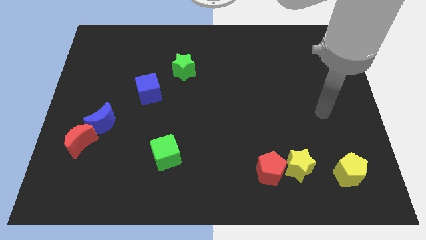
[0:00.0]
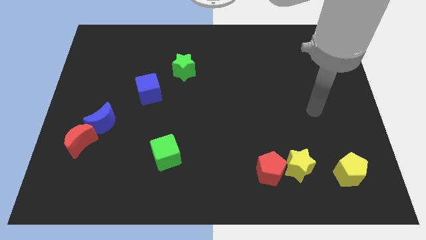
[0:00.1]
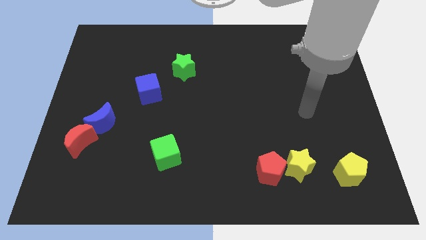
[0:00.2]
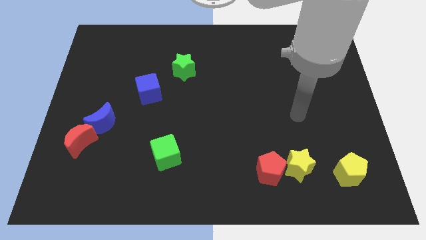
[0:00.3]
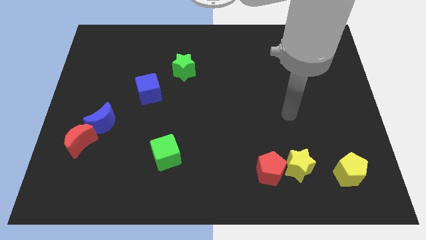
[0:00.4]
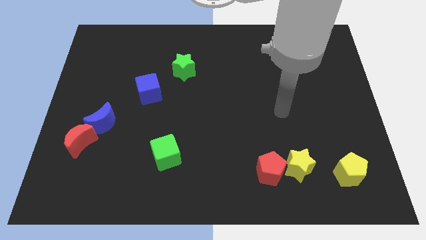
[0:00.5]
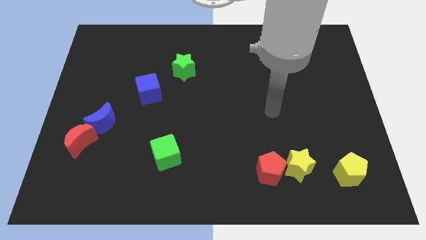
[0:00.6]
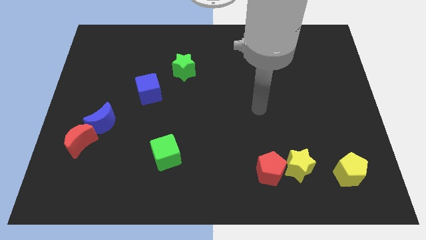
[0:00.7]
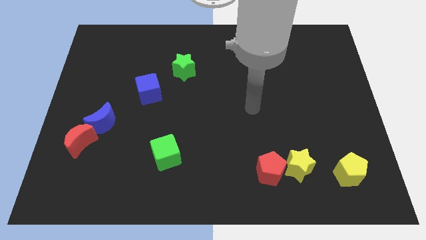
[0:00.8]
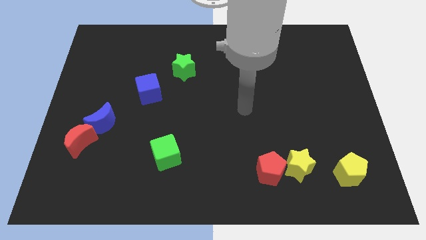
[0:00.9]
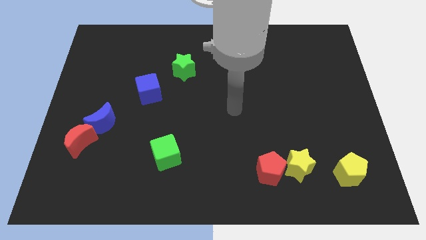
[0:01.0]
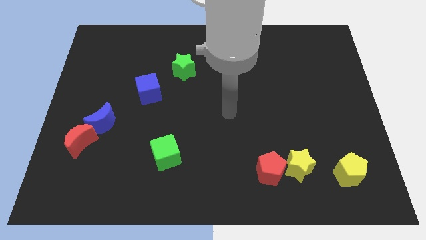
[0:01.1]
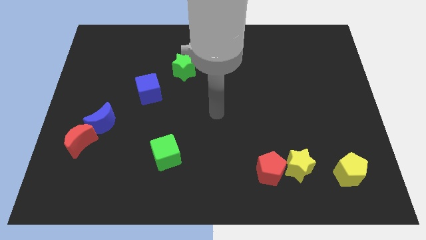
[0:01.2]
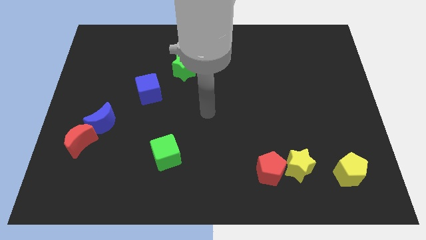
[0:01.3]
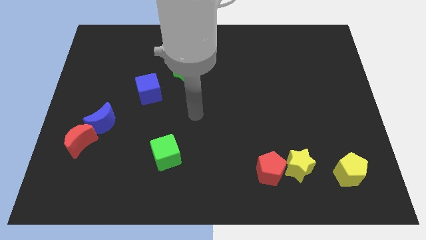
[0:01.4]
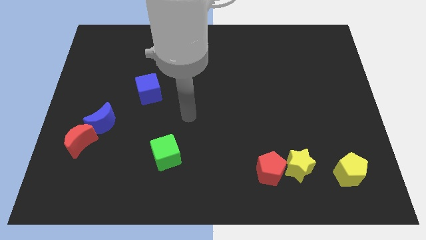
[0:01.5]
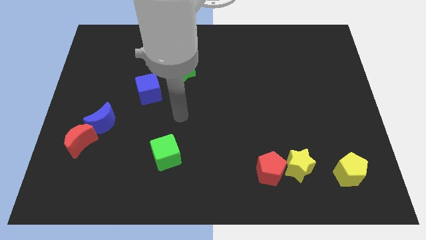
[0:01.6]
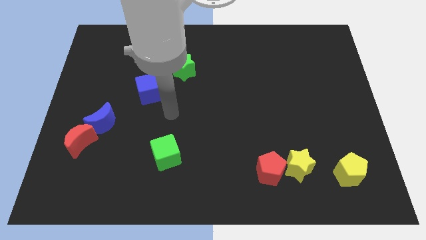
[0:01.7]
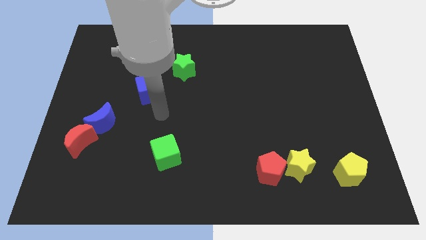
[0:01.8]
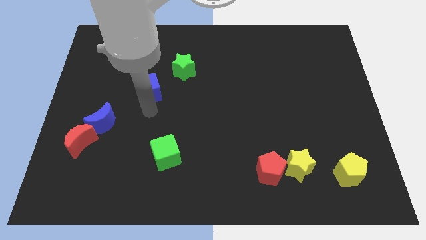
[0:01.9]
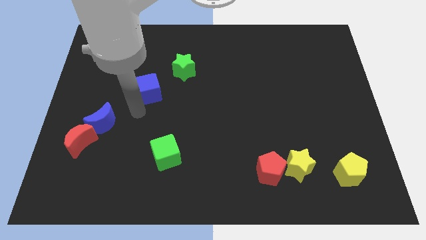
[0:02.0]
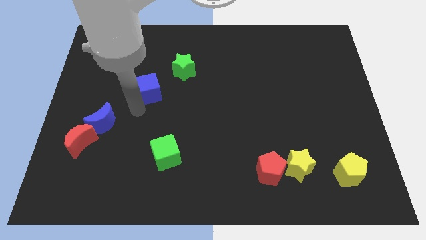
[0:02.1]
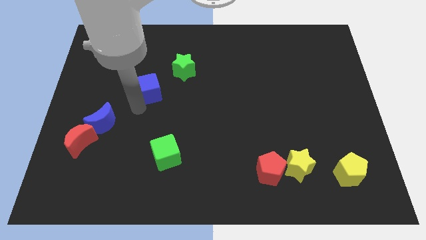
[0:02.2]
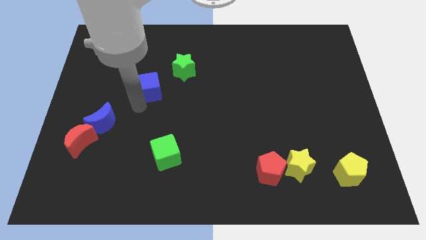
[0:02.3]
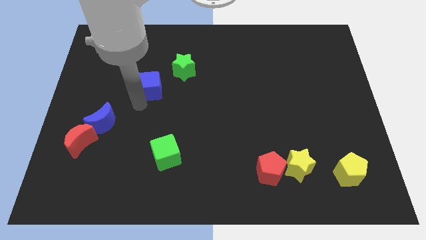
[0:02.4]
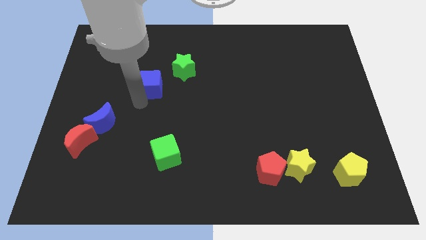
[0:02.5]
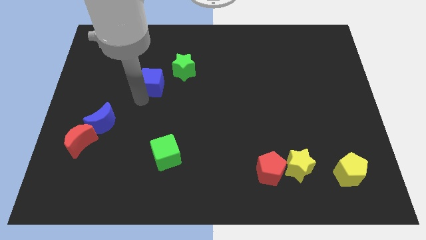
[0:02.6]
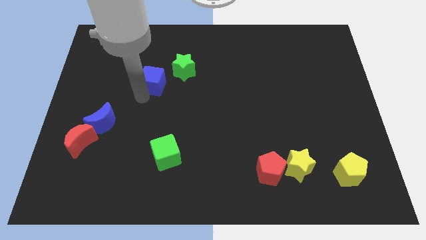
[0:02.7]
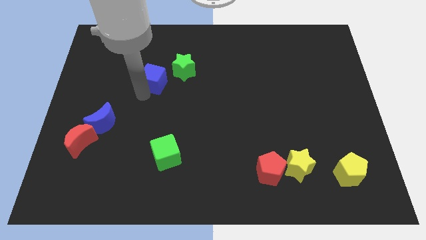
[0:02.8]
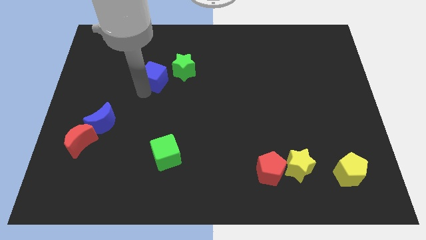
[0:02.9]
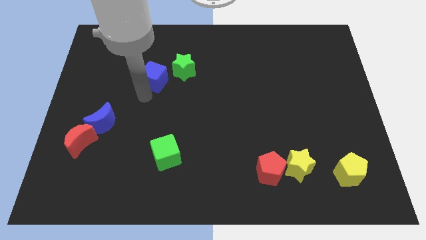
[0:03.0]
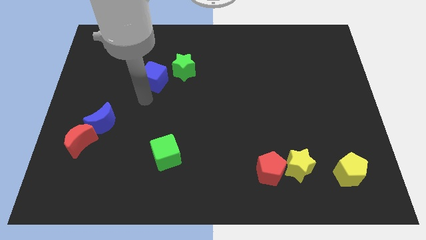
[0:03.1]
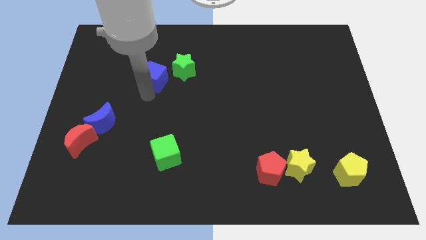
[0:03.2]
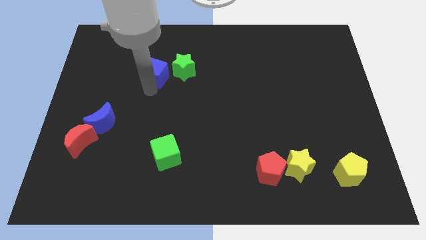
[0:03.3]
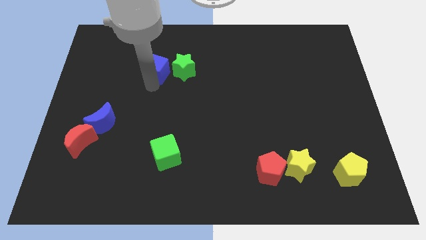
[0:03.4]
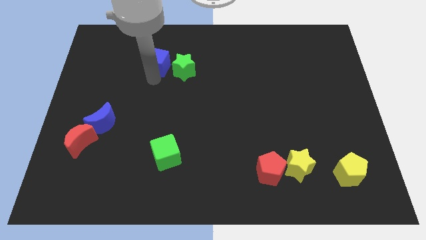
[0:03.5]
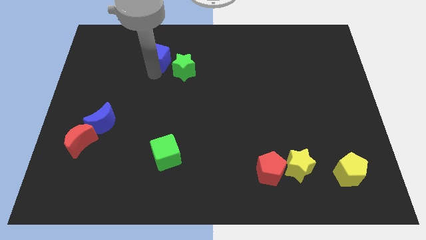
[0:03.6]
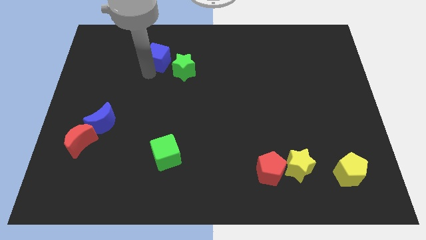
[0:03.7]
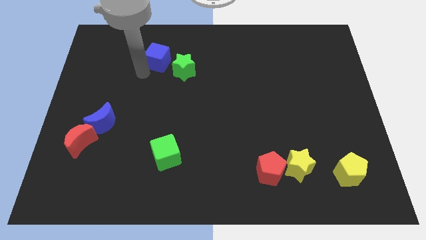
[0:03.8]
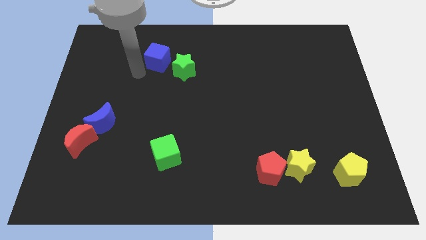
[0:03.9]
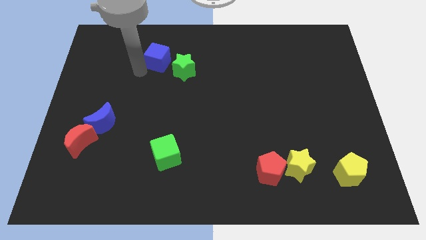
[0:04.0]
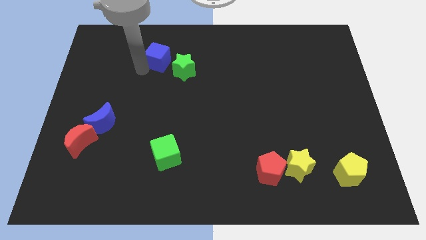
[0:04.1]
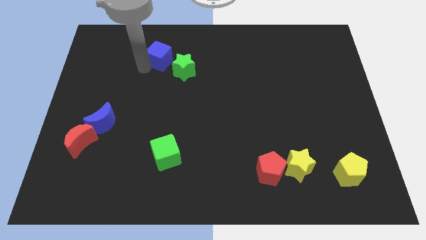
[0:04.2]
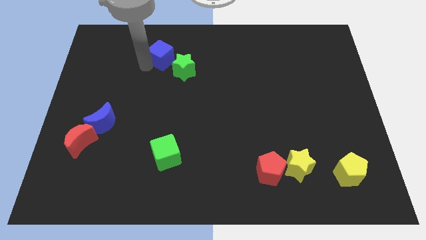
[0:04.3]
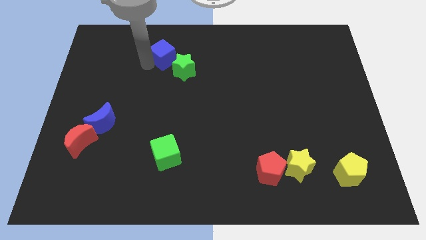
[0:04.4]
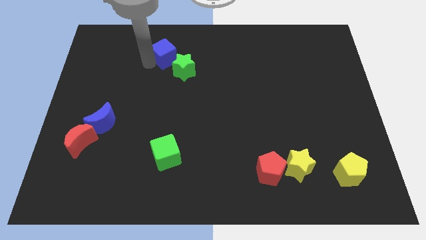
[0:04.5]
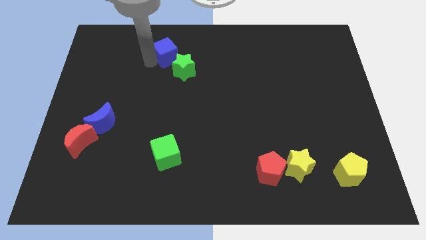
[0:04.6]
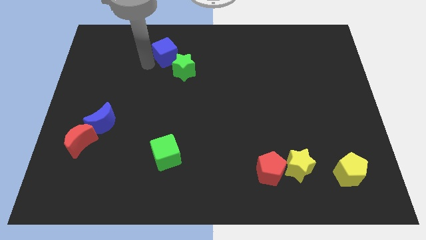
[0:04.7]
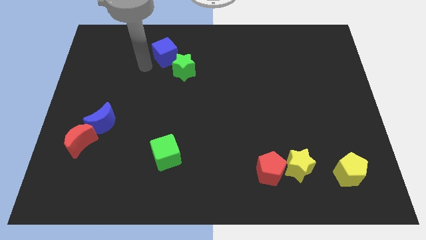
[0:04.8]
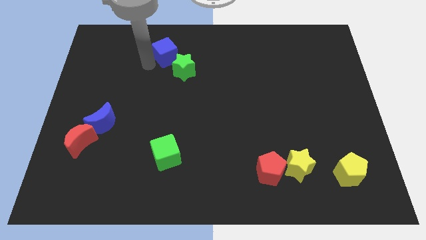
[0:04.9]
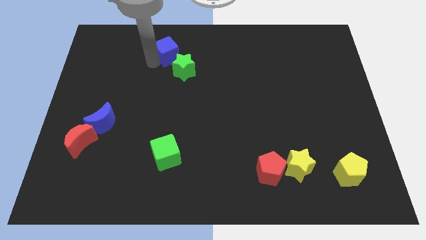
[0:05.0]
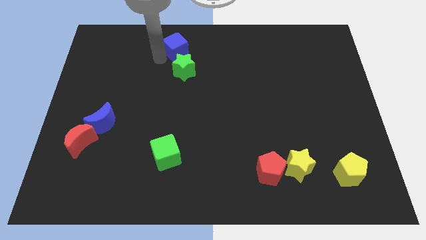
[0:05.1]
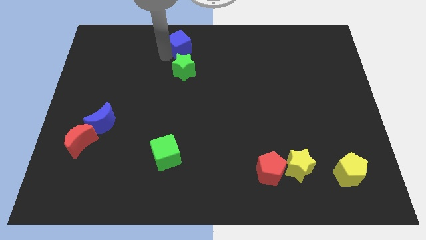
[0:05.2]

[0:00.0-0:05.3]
slide the blue cube to the top side

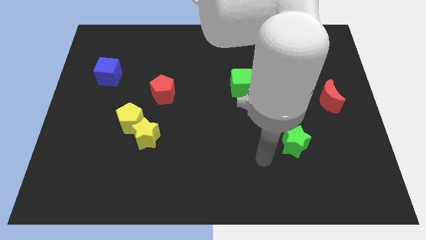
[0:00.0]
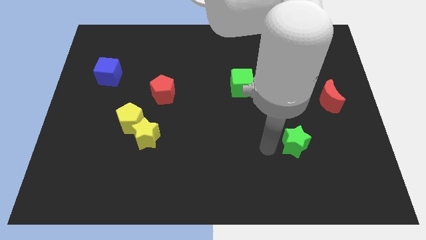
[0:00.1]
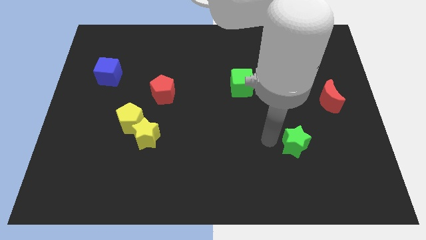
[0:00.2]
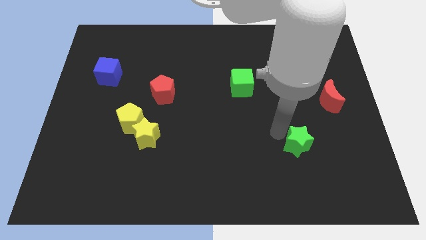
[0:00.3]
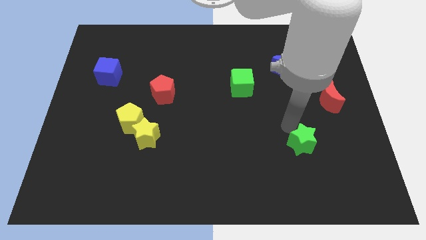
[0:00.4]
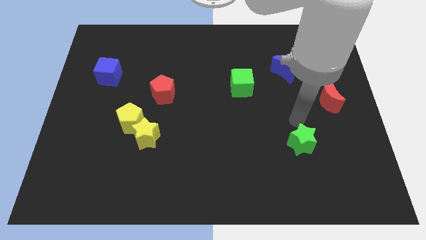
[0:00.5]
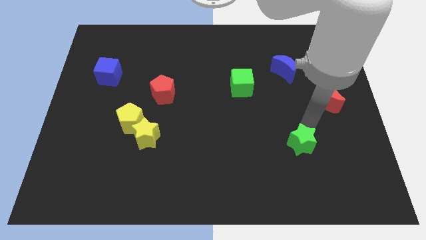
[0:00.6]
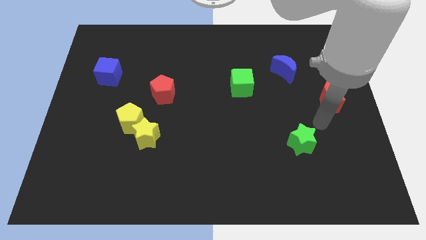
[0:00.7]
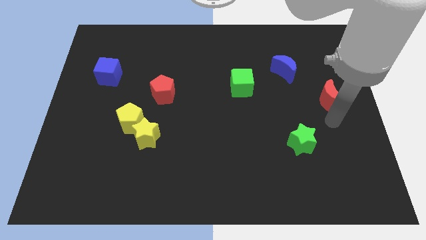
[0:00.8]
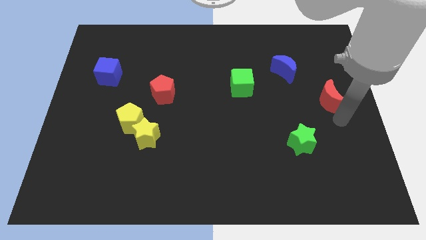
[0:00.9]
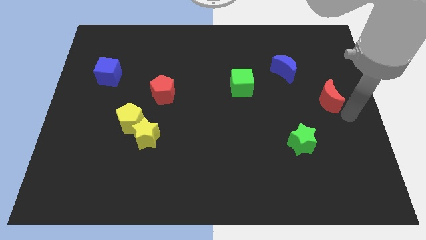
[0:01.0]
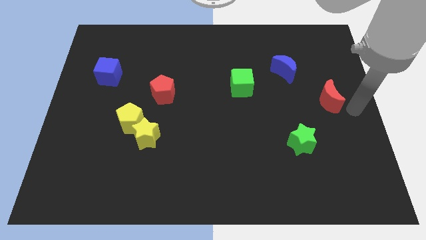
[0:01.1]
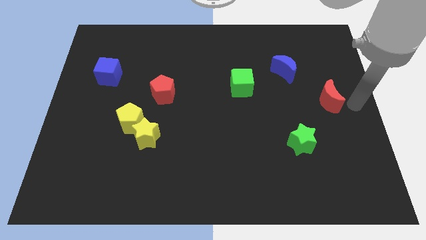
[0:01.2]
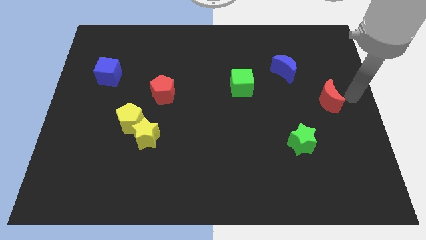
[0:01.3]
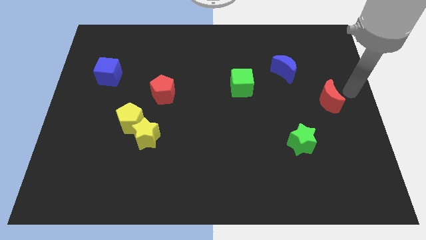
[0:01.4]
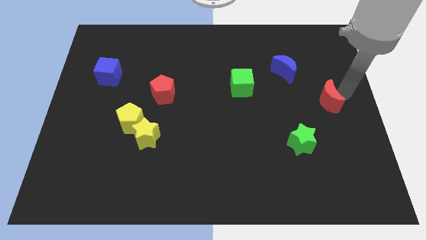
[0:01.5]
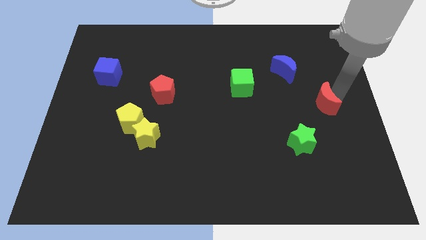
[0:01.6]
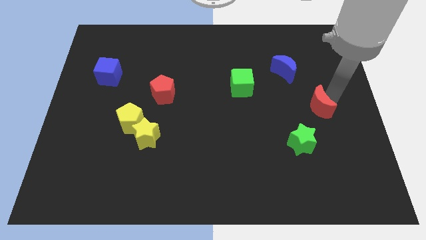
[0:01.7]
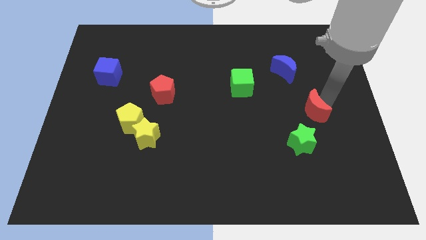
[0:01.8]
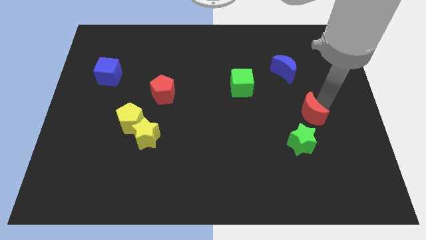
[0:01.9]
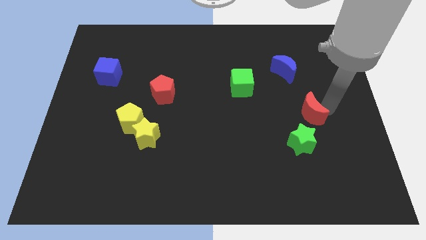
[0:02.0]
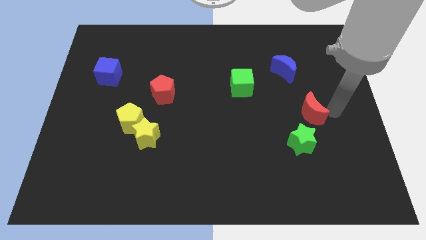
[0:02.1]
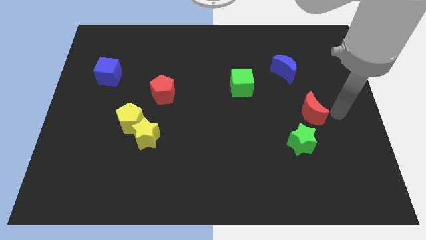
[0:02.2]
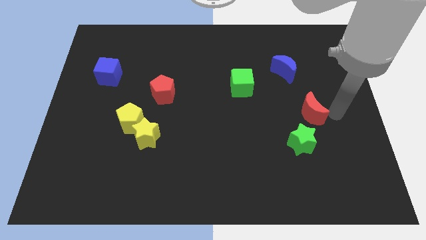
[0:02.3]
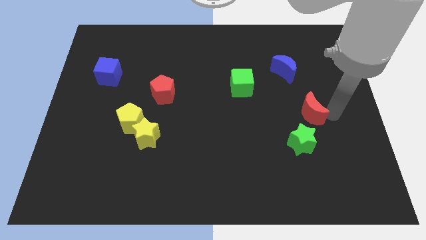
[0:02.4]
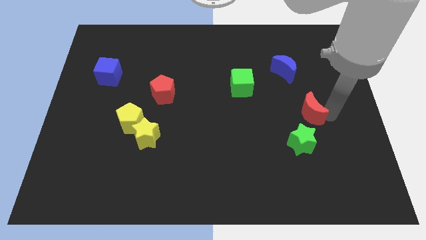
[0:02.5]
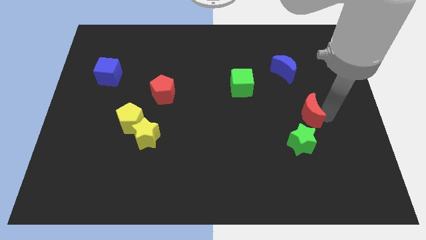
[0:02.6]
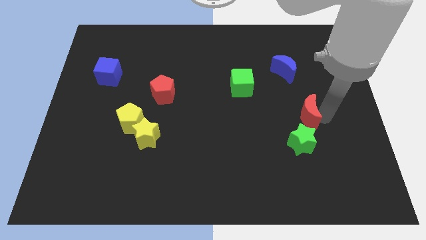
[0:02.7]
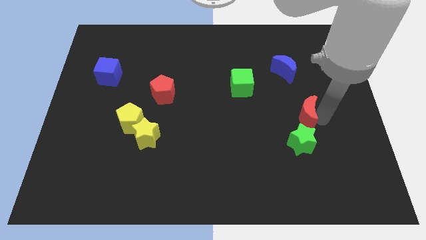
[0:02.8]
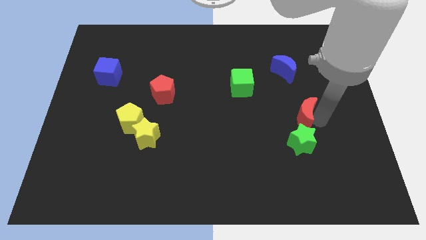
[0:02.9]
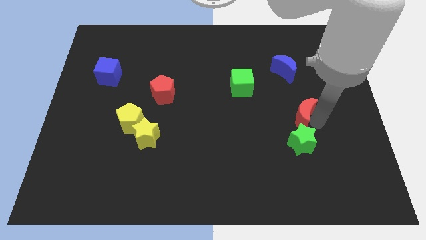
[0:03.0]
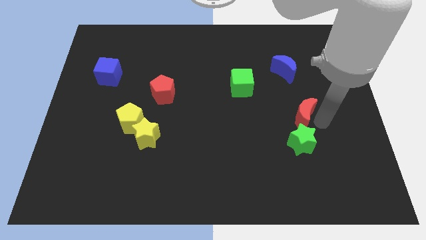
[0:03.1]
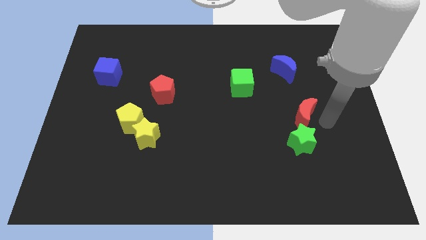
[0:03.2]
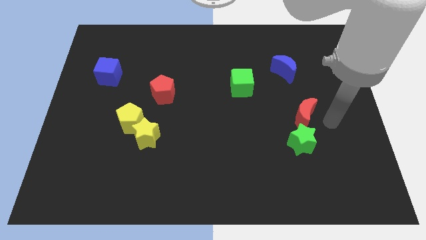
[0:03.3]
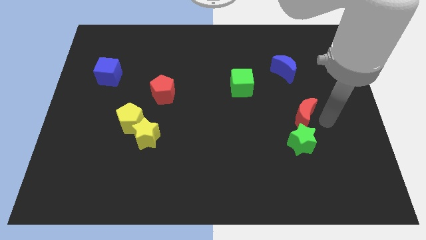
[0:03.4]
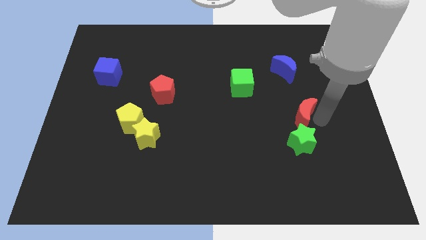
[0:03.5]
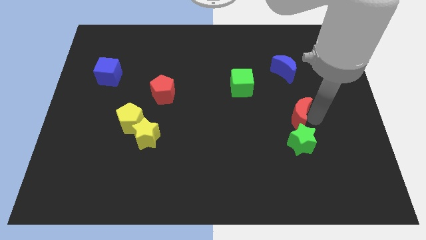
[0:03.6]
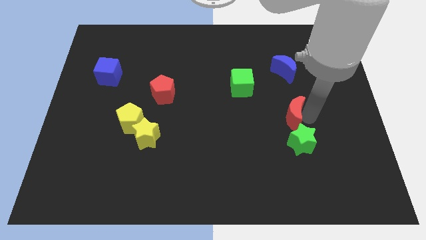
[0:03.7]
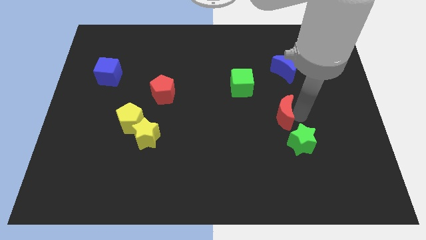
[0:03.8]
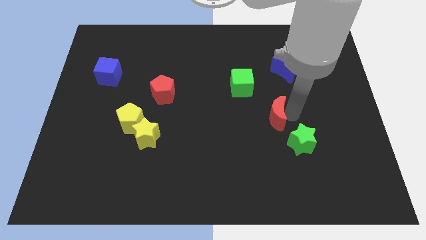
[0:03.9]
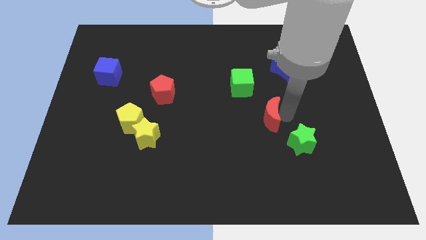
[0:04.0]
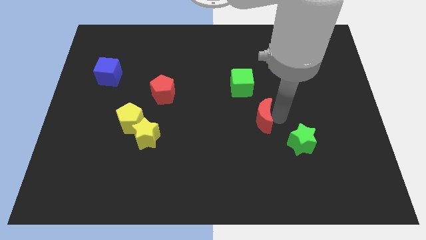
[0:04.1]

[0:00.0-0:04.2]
slide the red moon to the middle
